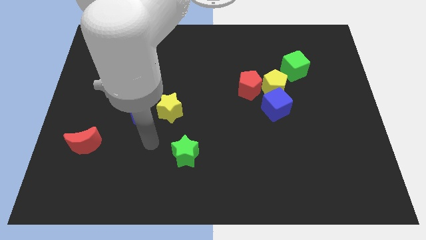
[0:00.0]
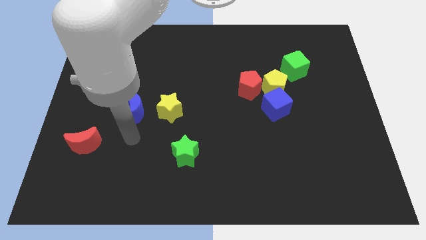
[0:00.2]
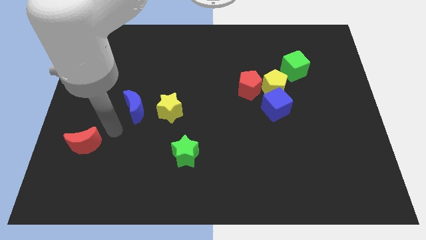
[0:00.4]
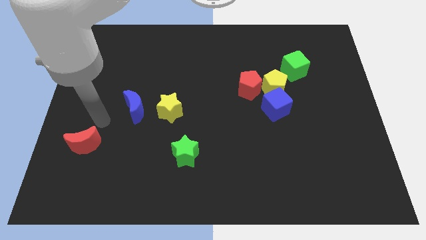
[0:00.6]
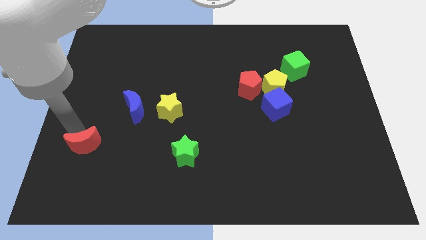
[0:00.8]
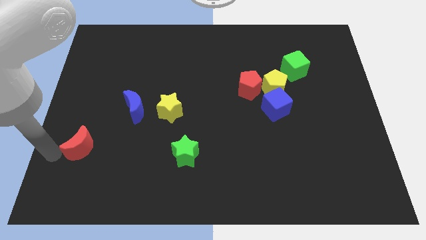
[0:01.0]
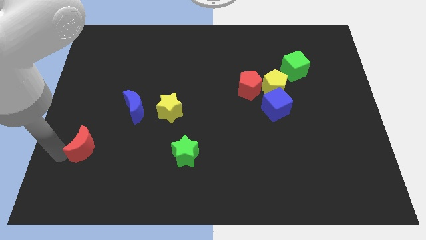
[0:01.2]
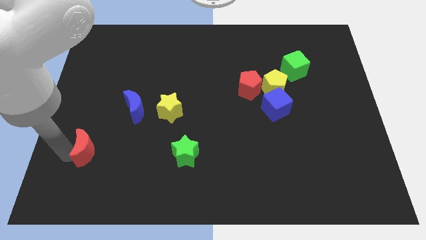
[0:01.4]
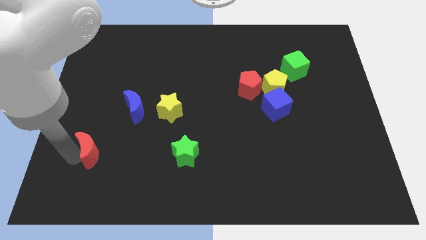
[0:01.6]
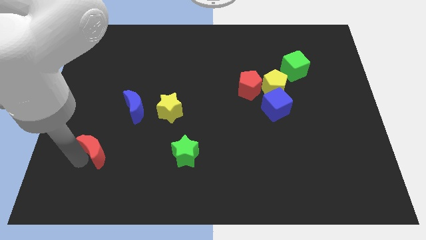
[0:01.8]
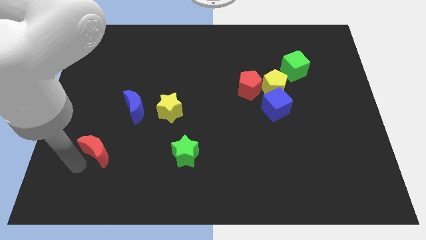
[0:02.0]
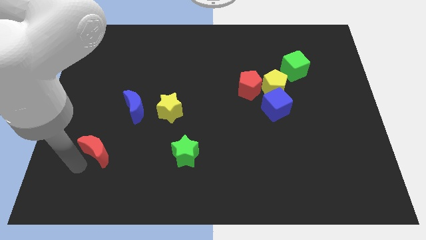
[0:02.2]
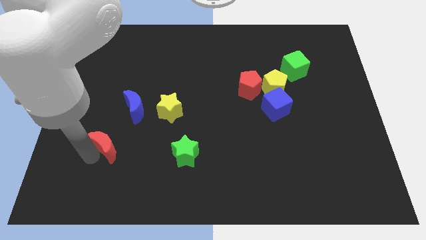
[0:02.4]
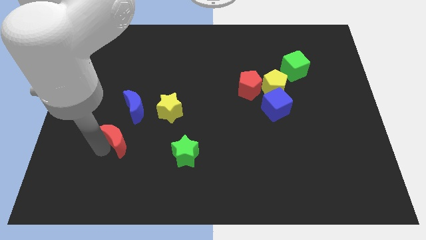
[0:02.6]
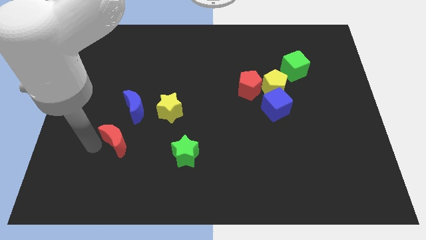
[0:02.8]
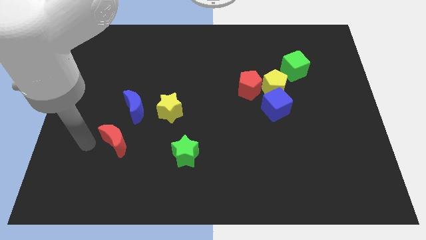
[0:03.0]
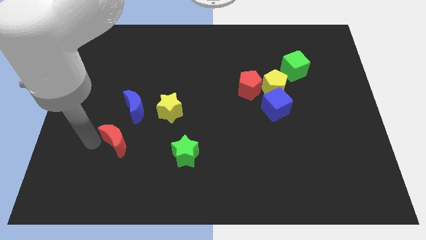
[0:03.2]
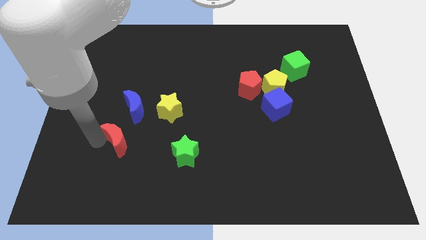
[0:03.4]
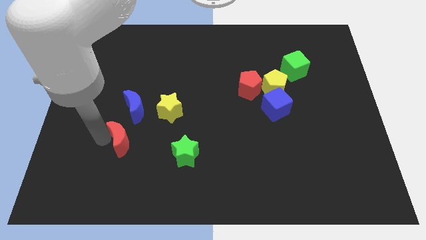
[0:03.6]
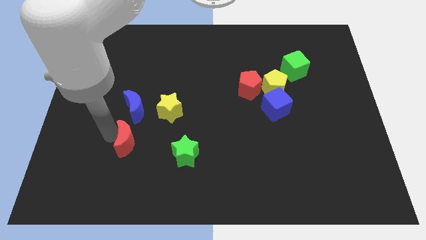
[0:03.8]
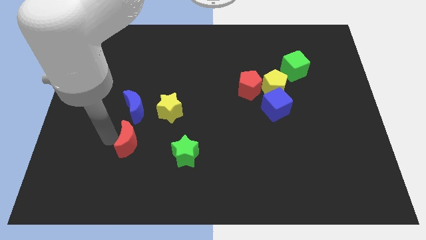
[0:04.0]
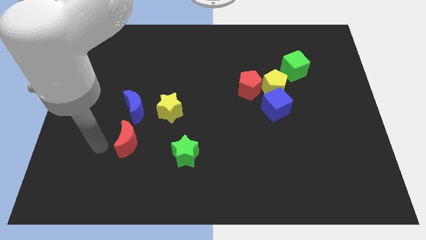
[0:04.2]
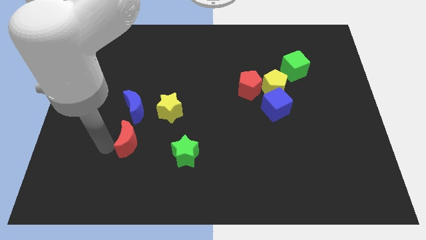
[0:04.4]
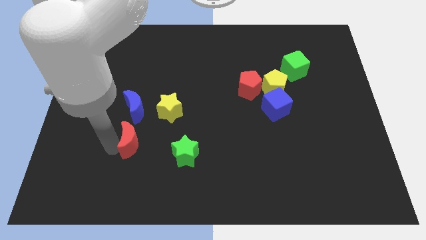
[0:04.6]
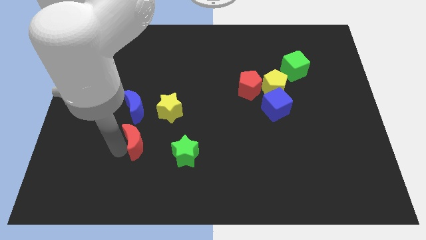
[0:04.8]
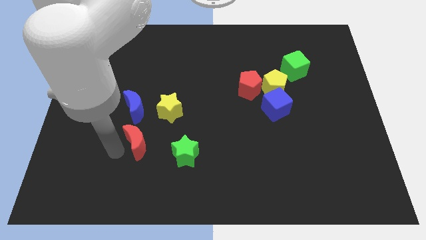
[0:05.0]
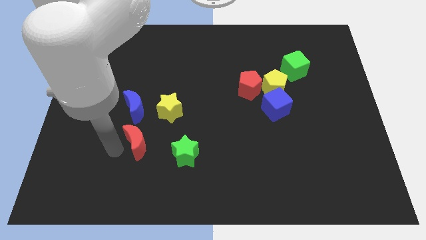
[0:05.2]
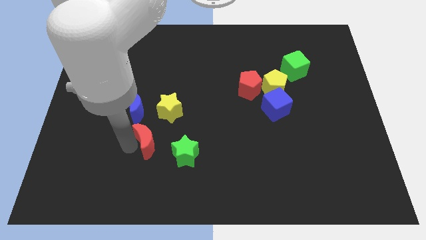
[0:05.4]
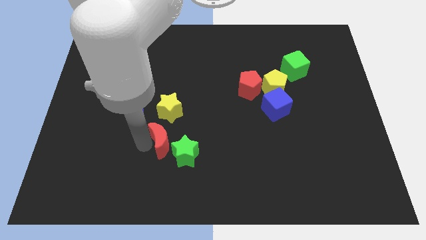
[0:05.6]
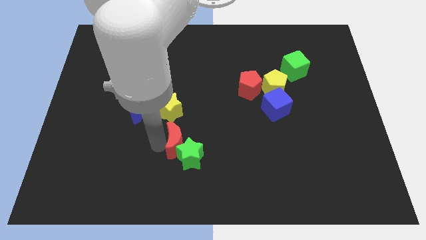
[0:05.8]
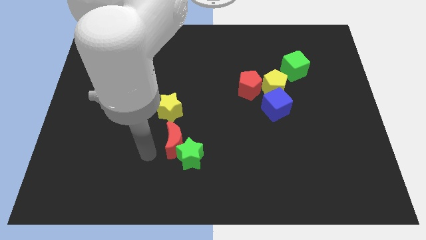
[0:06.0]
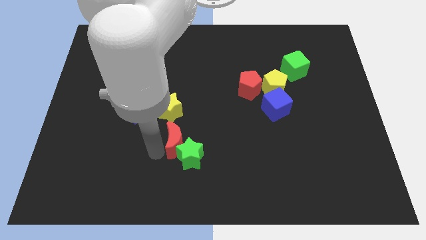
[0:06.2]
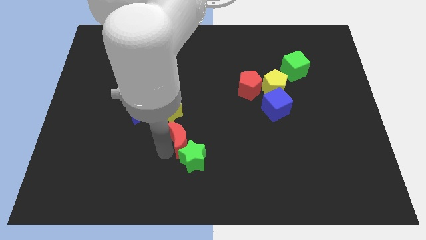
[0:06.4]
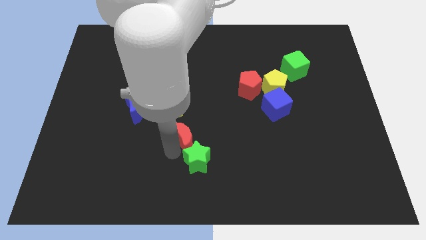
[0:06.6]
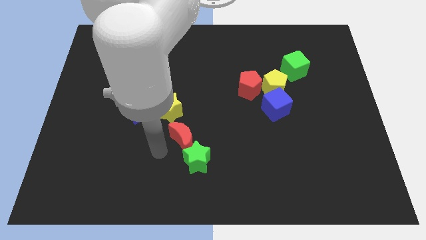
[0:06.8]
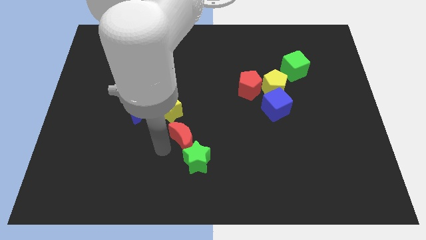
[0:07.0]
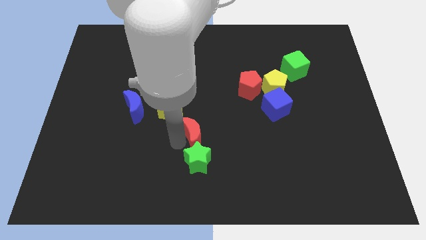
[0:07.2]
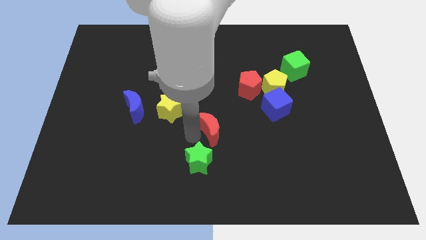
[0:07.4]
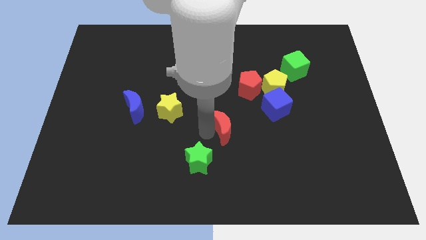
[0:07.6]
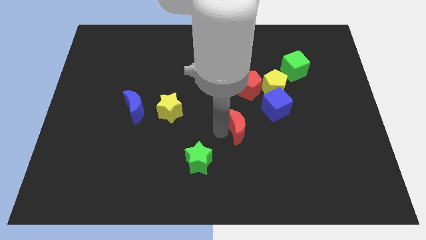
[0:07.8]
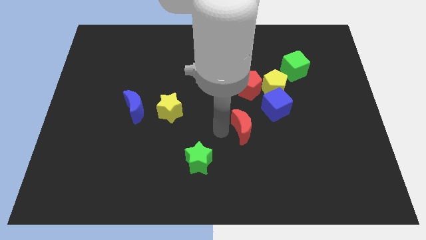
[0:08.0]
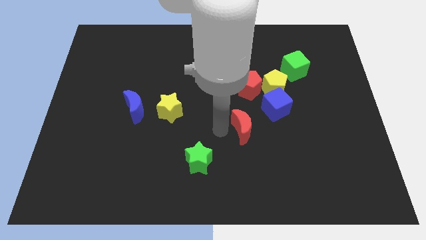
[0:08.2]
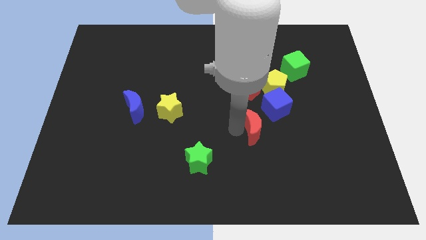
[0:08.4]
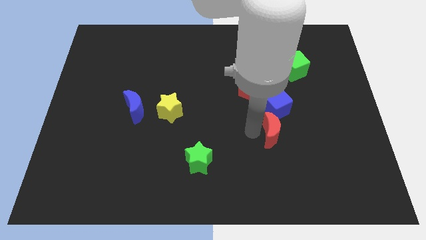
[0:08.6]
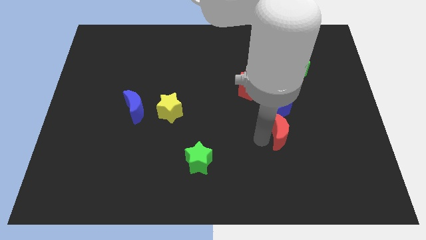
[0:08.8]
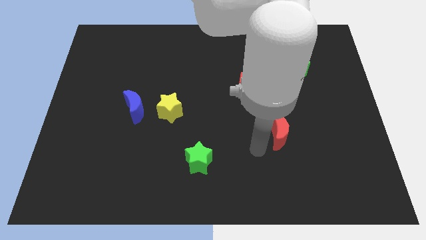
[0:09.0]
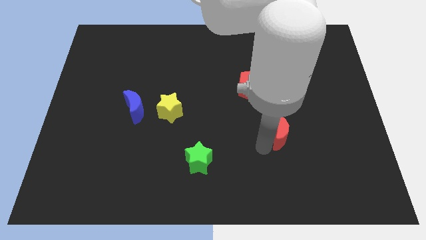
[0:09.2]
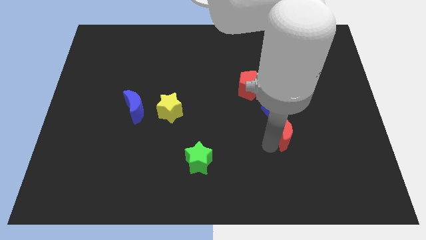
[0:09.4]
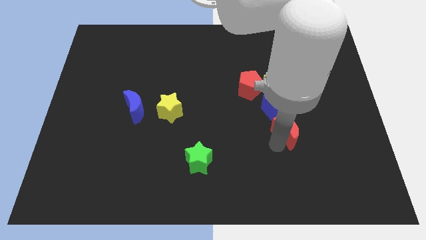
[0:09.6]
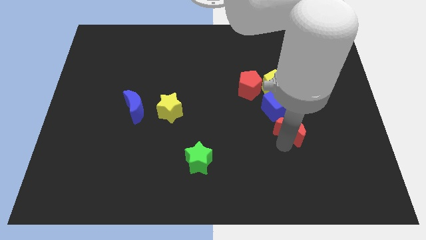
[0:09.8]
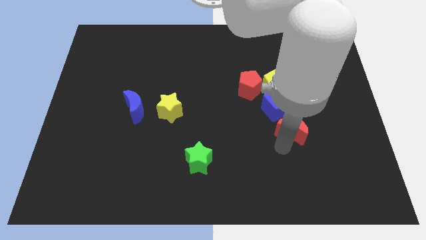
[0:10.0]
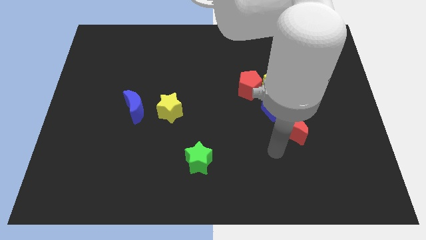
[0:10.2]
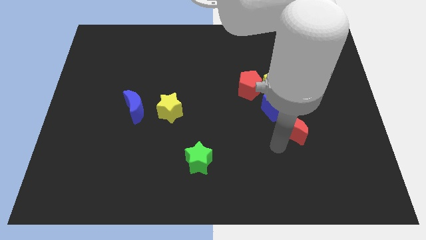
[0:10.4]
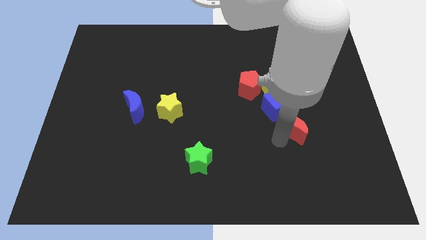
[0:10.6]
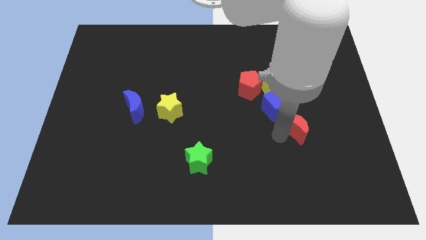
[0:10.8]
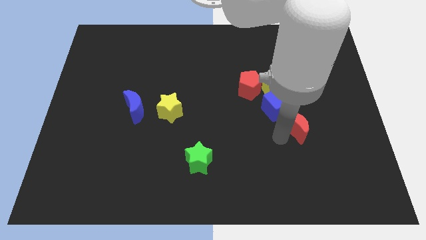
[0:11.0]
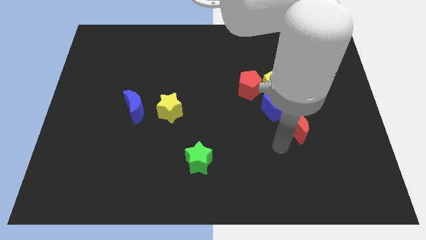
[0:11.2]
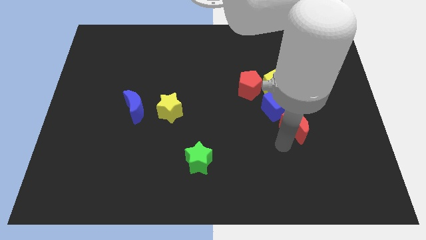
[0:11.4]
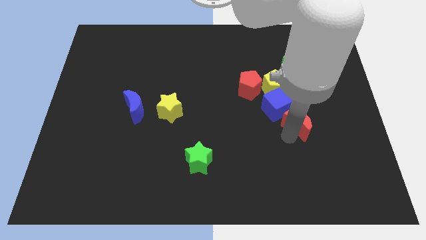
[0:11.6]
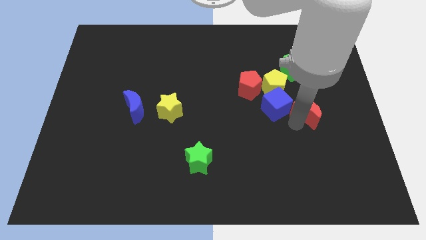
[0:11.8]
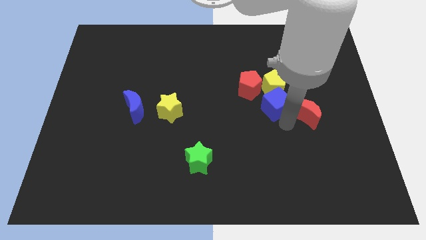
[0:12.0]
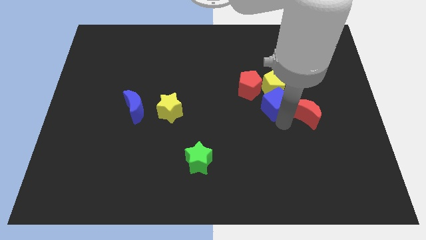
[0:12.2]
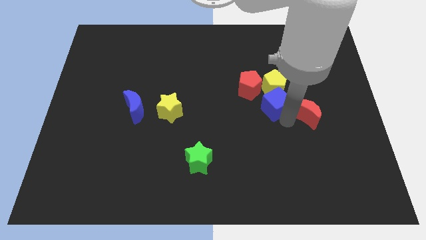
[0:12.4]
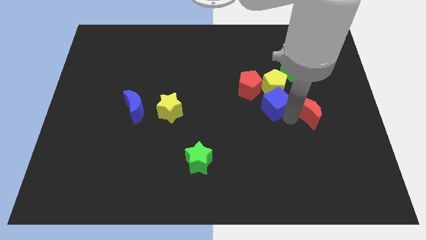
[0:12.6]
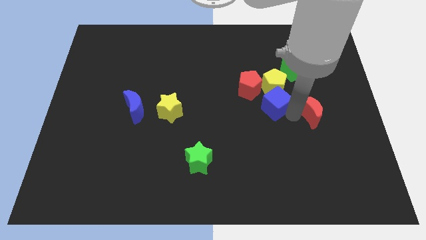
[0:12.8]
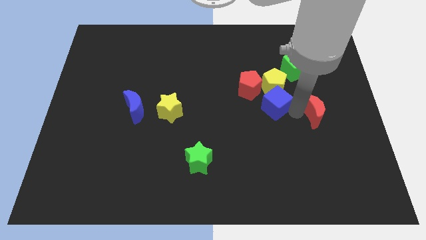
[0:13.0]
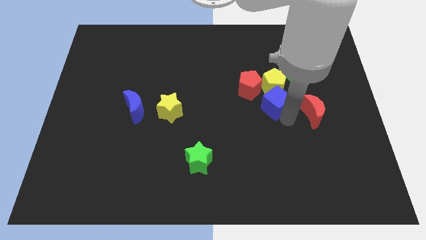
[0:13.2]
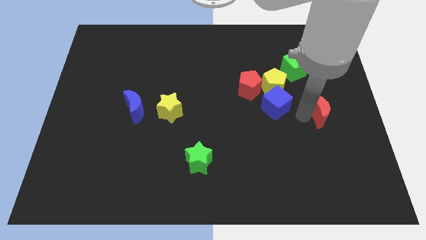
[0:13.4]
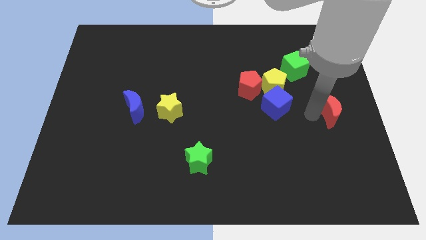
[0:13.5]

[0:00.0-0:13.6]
push the red moon to the center right
